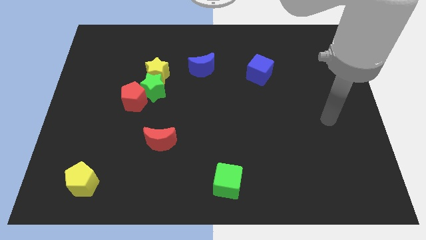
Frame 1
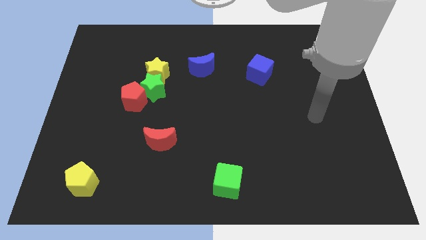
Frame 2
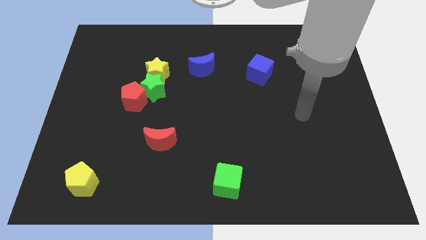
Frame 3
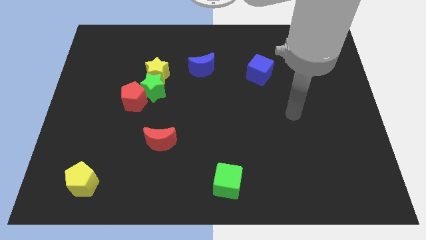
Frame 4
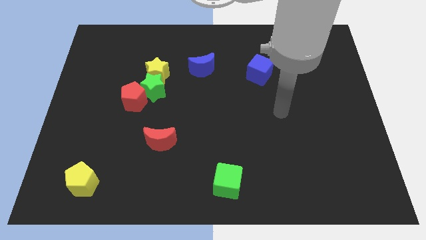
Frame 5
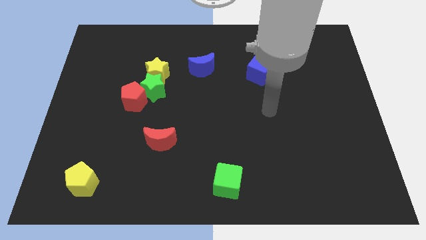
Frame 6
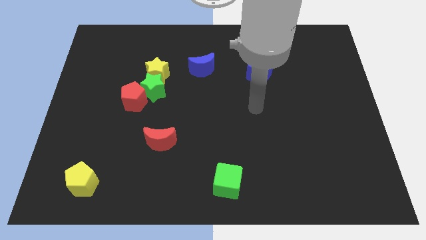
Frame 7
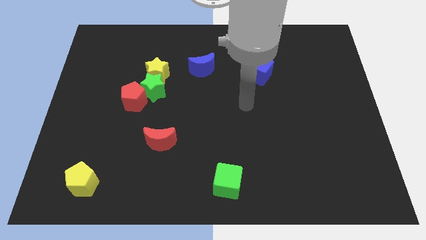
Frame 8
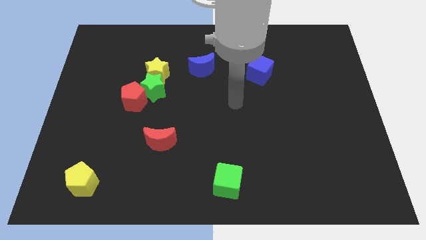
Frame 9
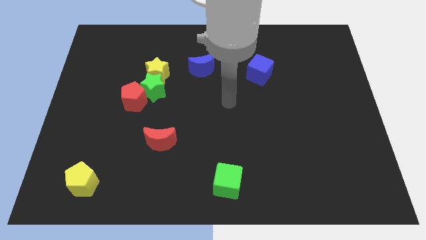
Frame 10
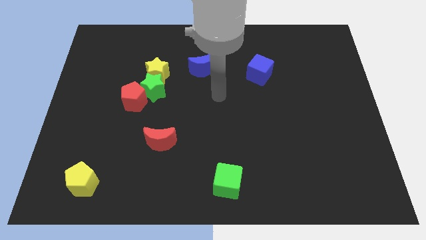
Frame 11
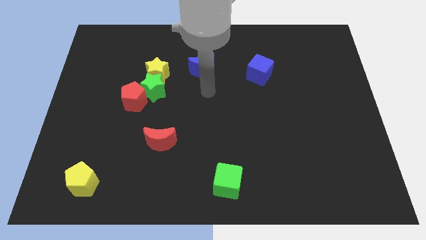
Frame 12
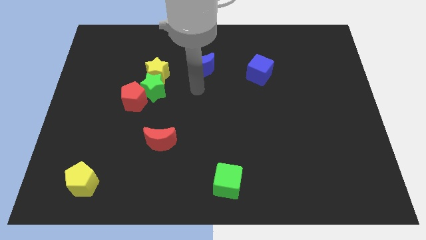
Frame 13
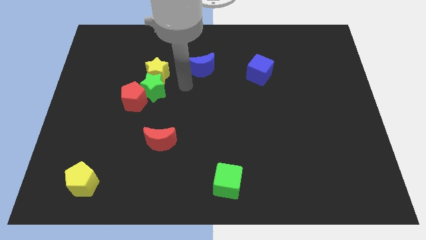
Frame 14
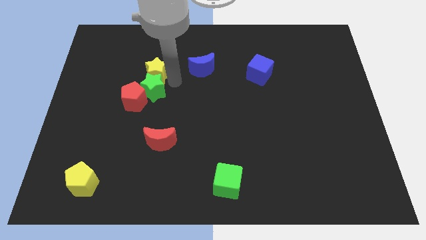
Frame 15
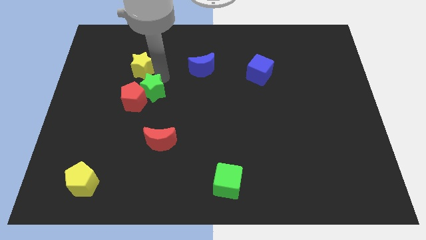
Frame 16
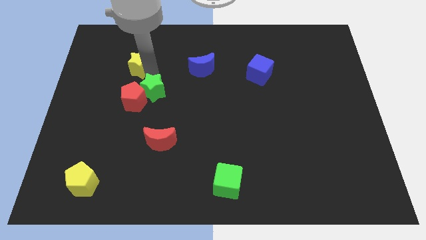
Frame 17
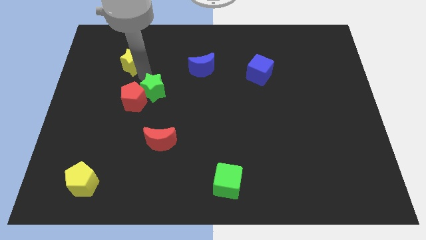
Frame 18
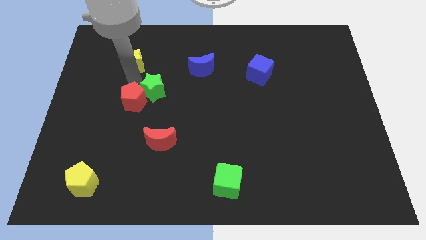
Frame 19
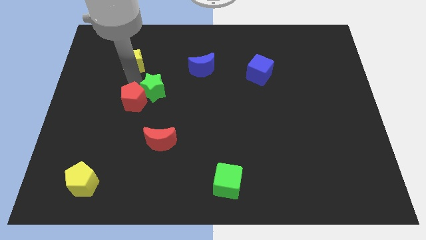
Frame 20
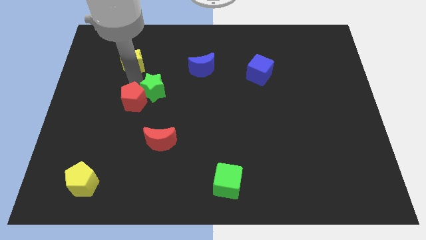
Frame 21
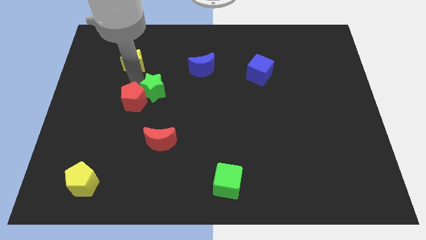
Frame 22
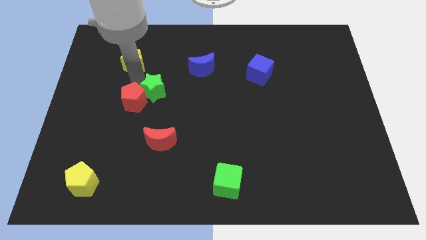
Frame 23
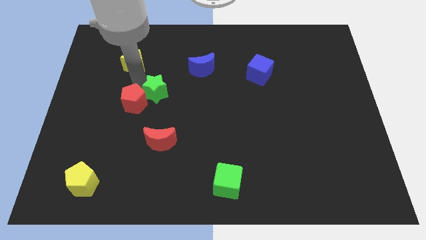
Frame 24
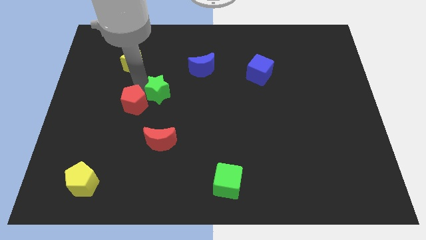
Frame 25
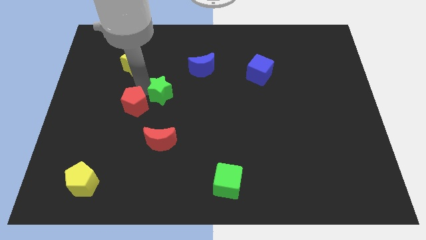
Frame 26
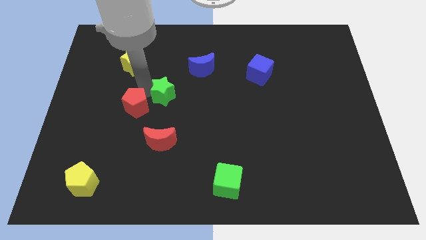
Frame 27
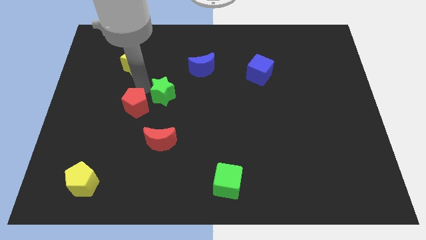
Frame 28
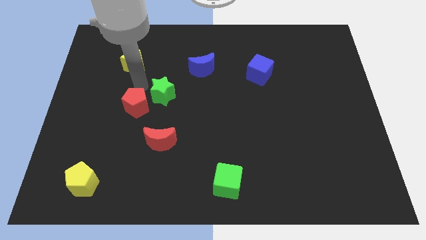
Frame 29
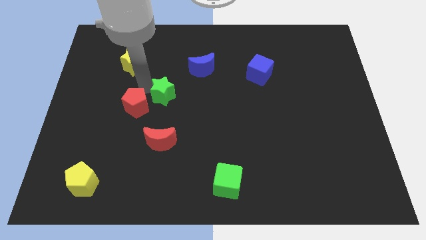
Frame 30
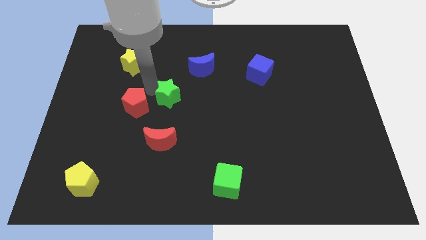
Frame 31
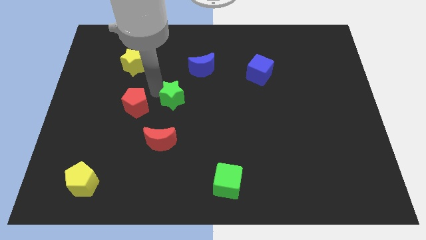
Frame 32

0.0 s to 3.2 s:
move the green star away from the yellow star and red pentagon

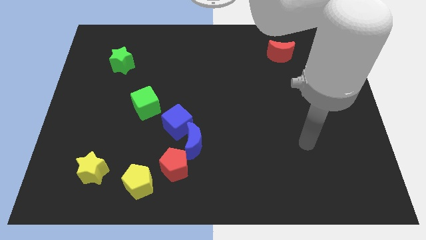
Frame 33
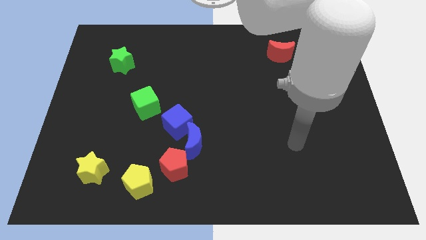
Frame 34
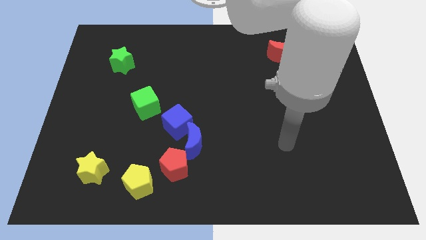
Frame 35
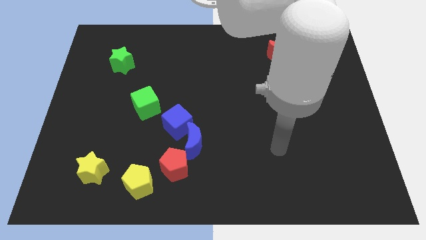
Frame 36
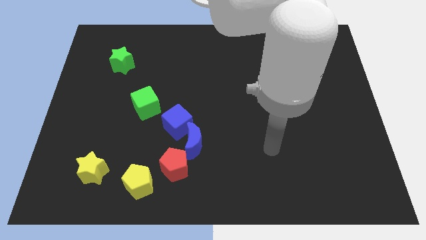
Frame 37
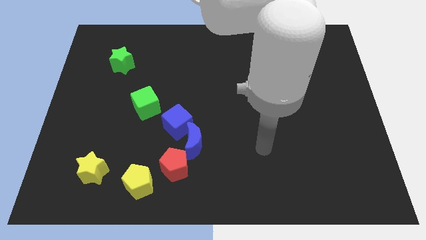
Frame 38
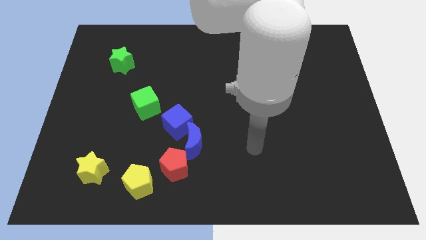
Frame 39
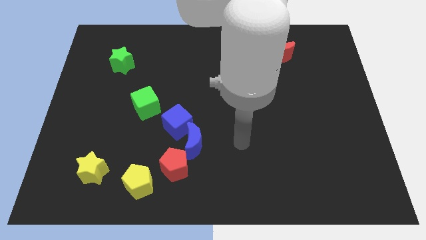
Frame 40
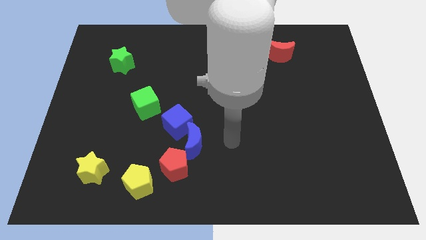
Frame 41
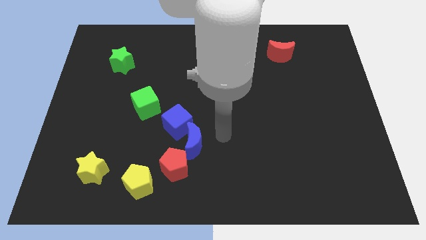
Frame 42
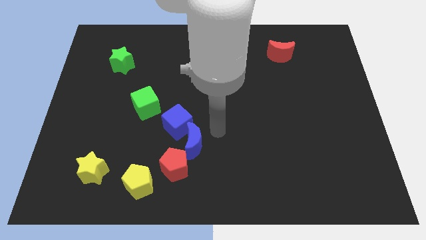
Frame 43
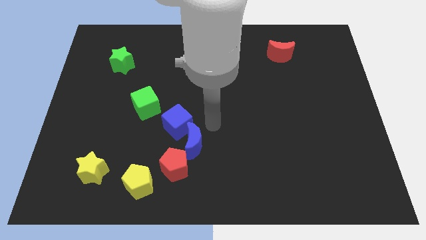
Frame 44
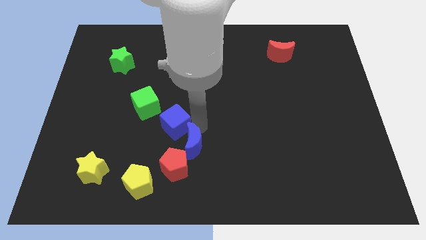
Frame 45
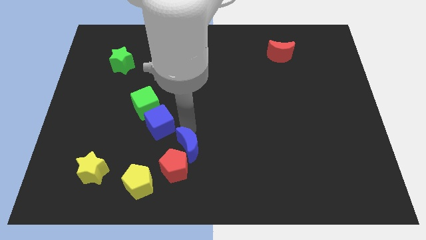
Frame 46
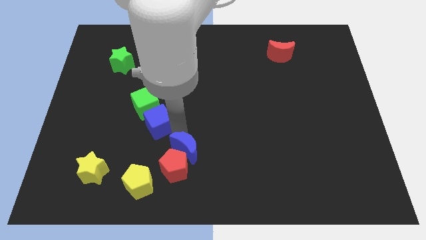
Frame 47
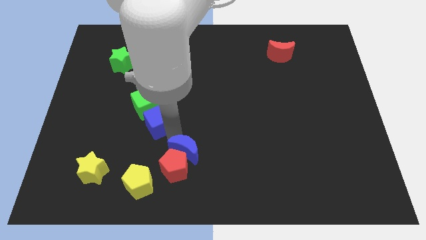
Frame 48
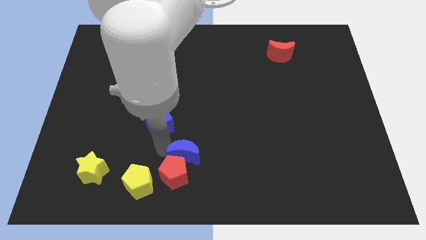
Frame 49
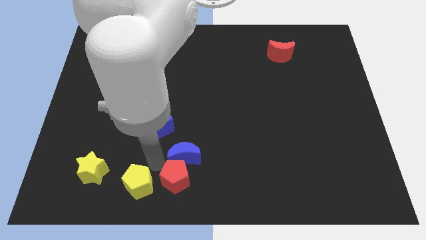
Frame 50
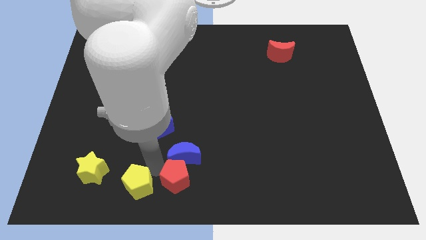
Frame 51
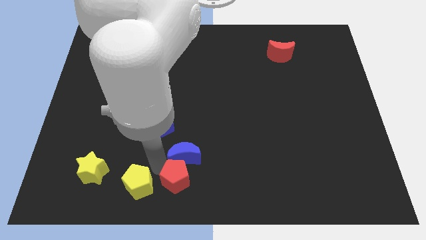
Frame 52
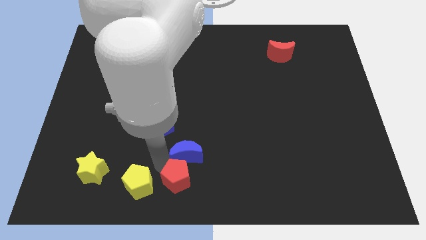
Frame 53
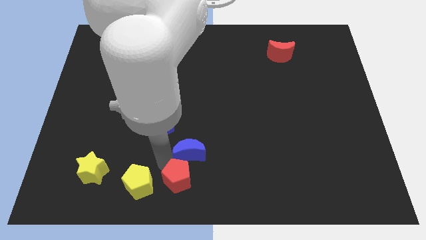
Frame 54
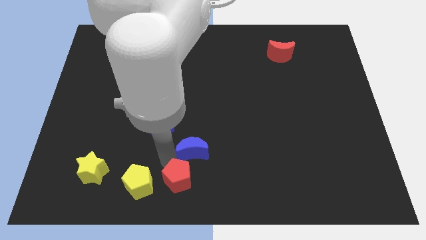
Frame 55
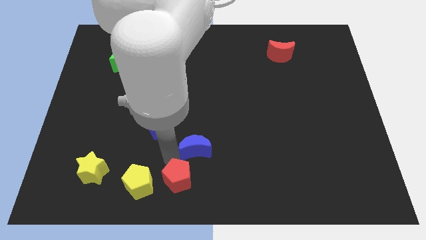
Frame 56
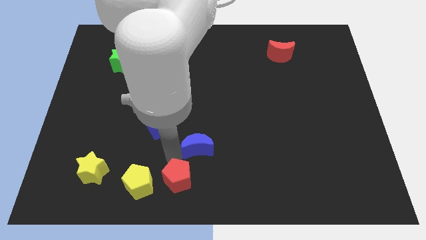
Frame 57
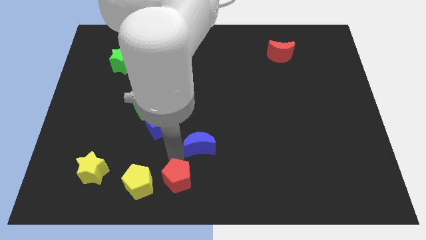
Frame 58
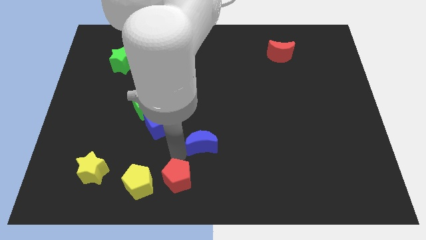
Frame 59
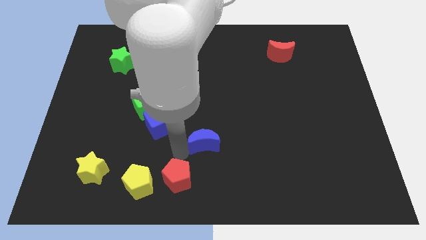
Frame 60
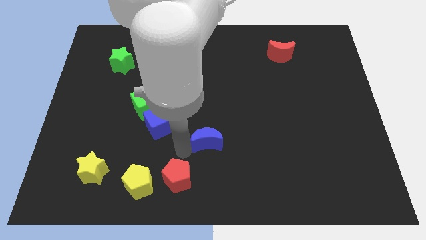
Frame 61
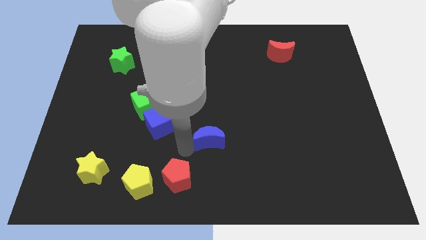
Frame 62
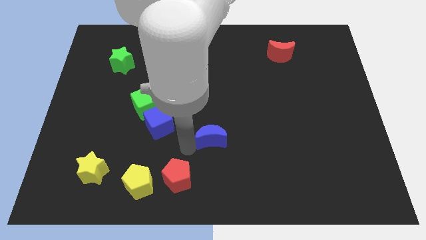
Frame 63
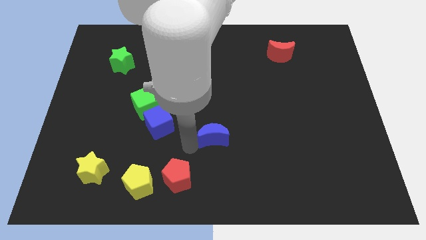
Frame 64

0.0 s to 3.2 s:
move the blue moon away from the blue cube and red pentagon

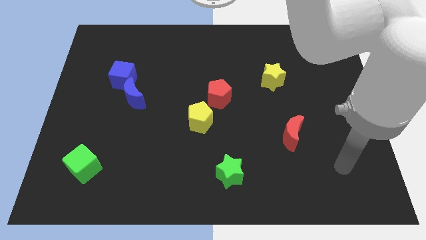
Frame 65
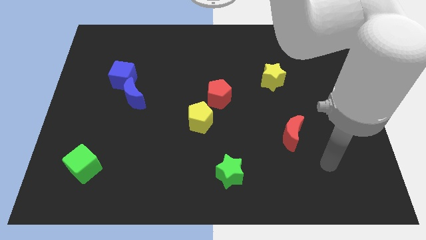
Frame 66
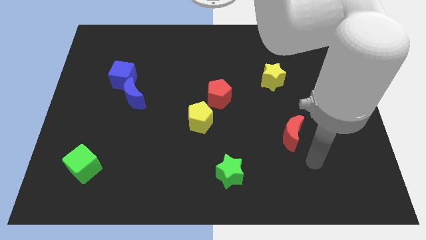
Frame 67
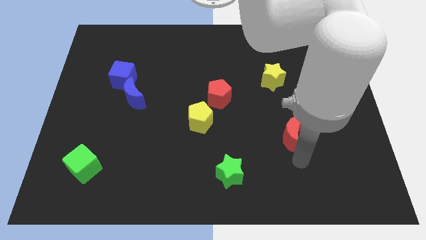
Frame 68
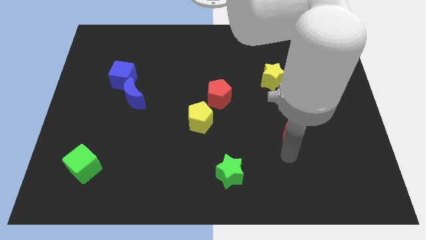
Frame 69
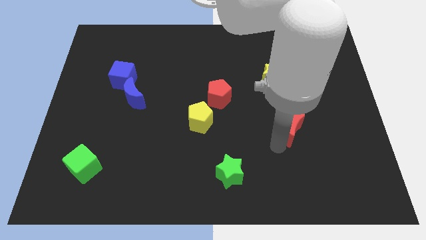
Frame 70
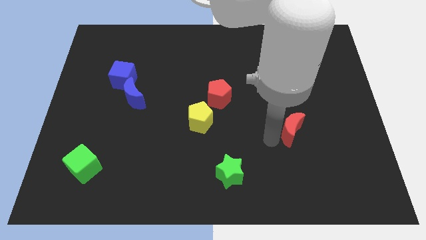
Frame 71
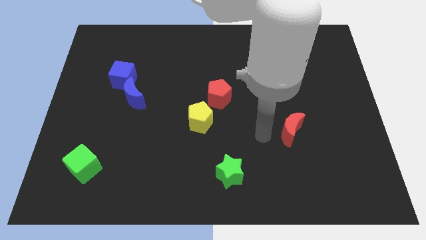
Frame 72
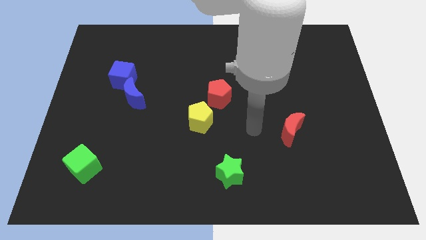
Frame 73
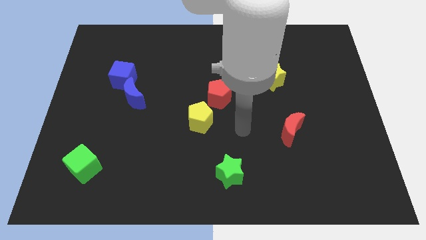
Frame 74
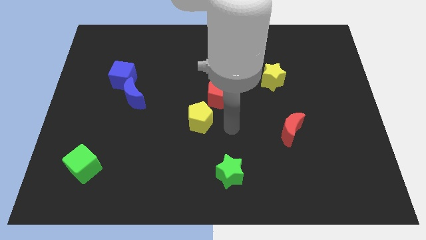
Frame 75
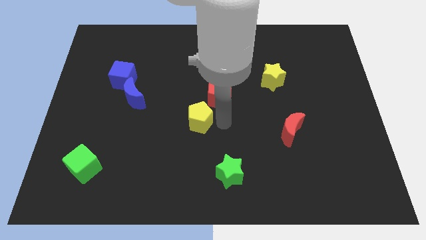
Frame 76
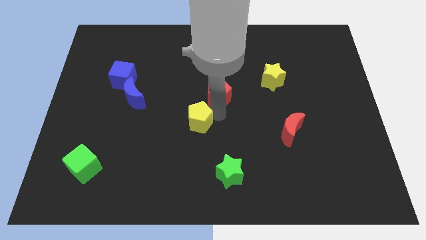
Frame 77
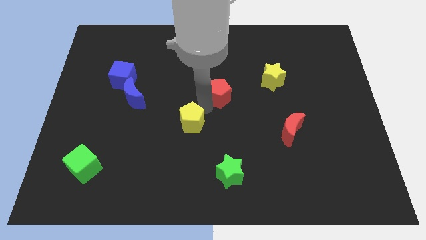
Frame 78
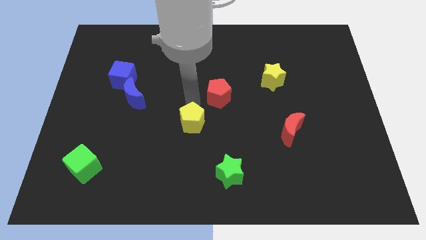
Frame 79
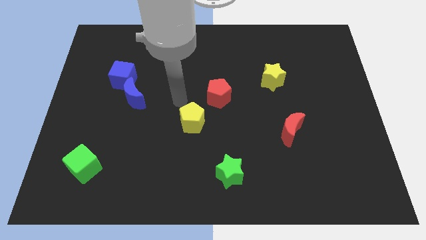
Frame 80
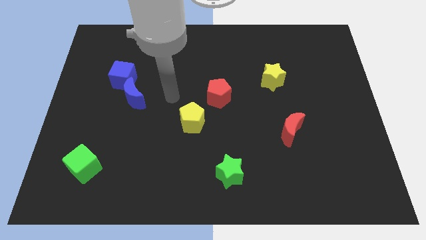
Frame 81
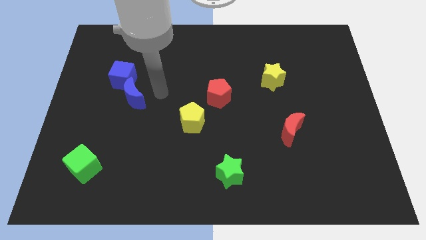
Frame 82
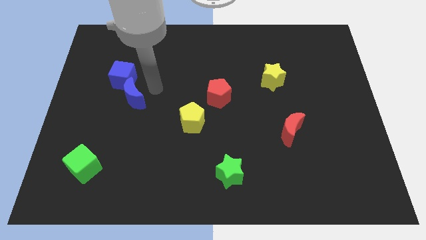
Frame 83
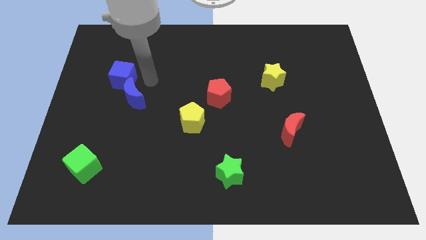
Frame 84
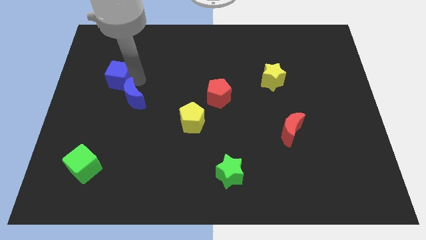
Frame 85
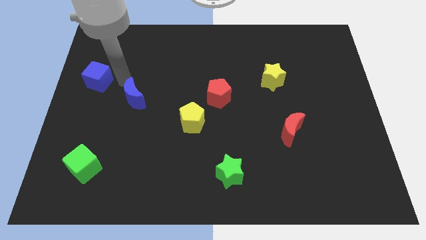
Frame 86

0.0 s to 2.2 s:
move the blue moon away from the blue cube

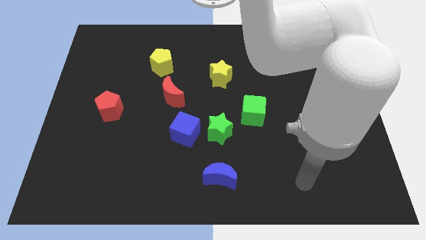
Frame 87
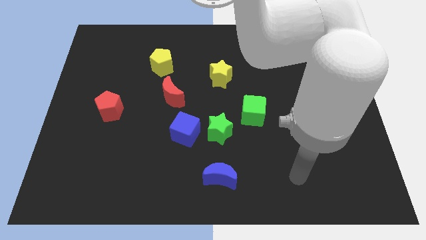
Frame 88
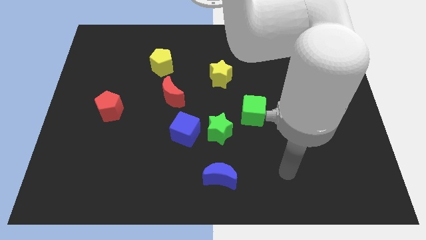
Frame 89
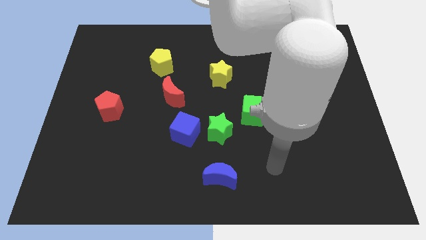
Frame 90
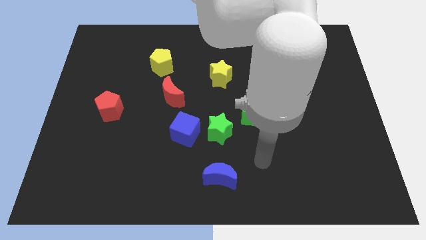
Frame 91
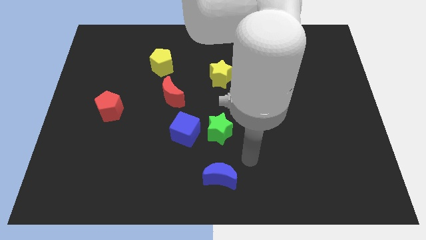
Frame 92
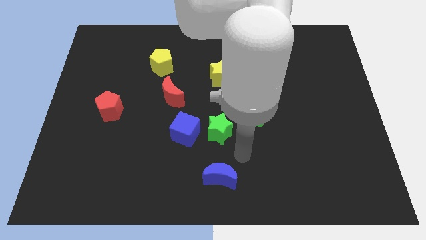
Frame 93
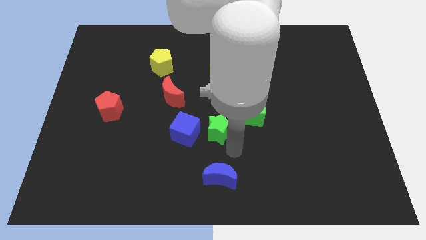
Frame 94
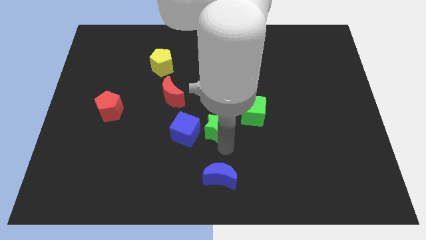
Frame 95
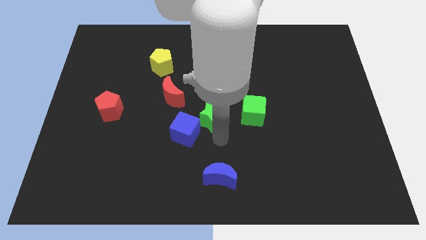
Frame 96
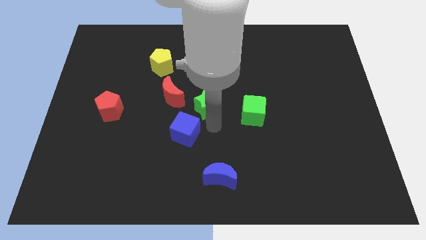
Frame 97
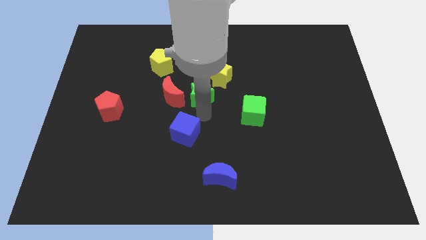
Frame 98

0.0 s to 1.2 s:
separate the blue cube from the green star
